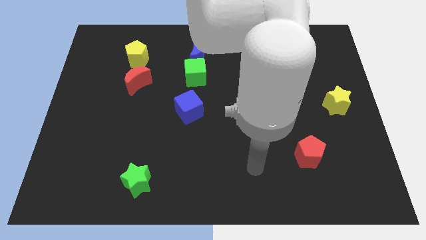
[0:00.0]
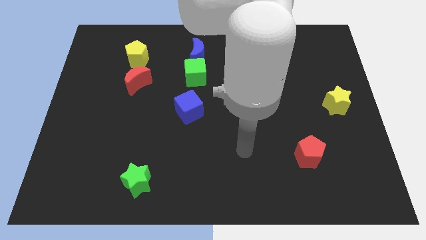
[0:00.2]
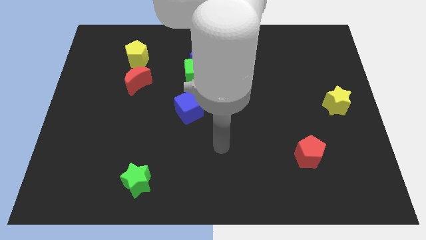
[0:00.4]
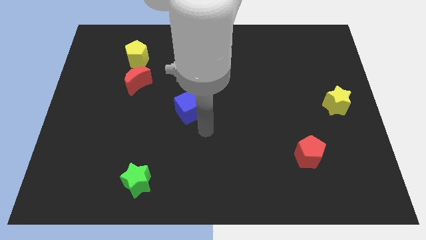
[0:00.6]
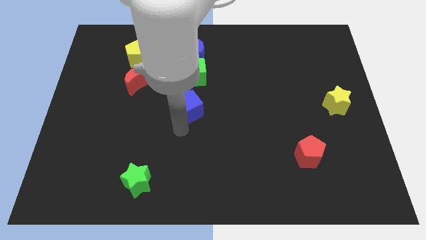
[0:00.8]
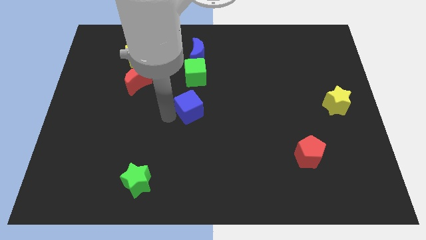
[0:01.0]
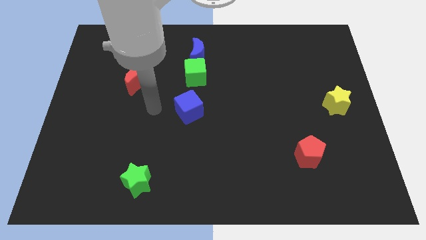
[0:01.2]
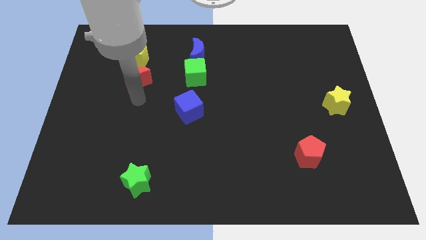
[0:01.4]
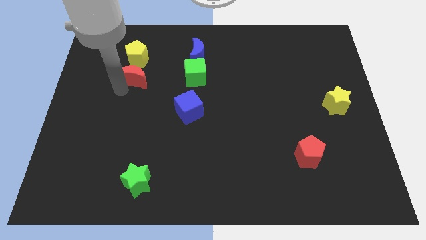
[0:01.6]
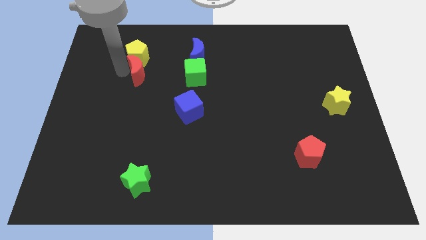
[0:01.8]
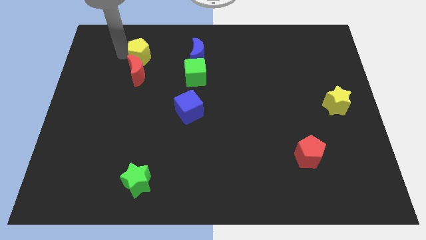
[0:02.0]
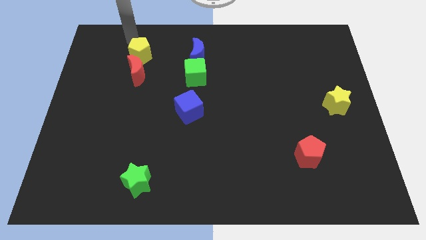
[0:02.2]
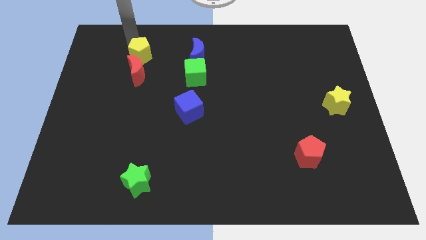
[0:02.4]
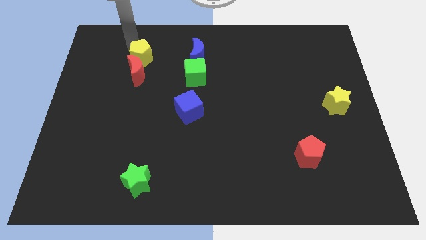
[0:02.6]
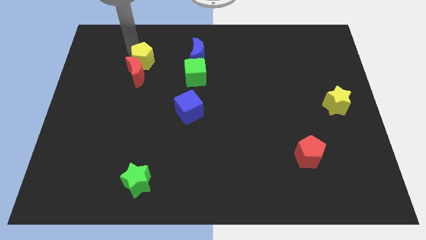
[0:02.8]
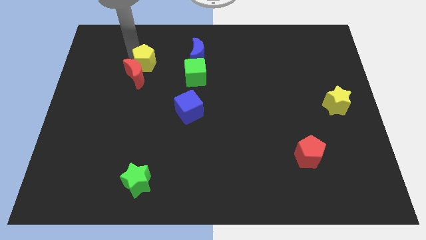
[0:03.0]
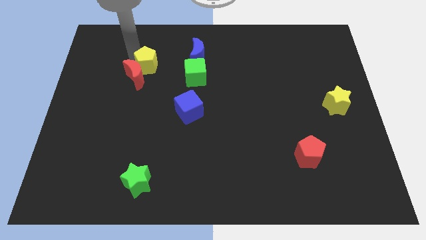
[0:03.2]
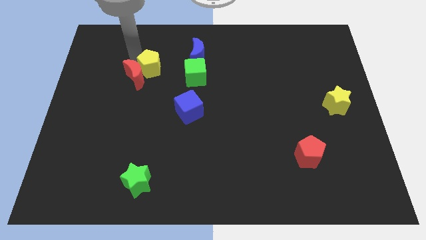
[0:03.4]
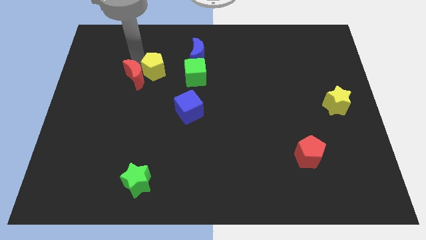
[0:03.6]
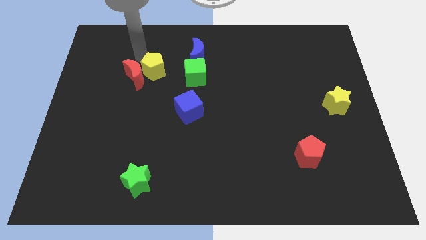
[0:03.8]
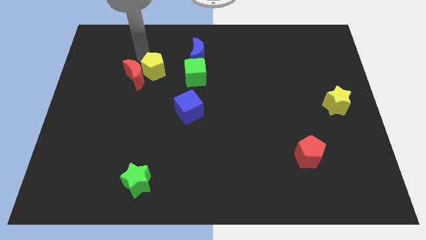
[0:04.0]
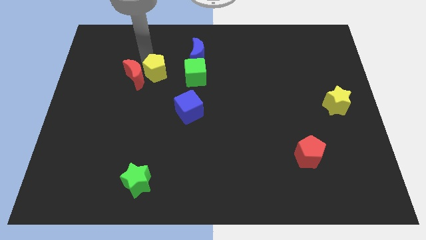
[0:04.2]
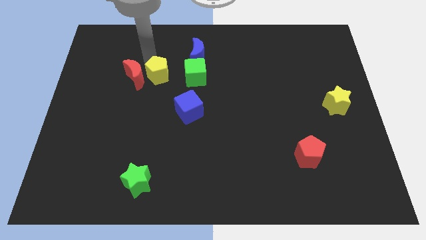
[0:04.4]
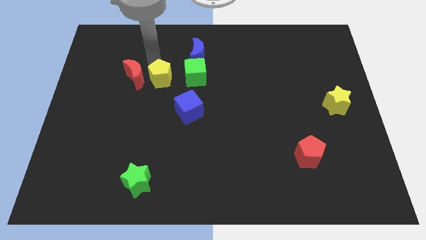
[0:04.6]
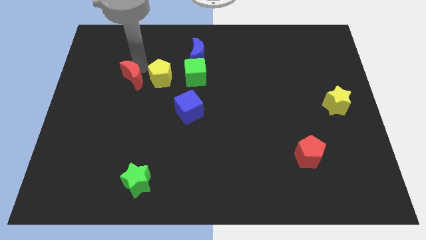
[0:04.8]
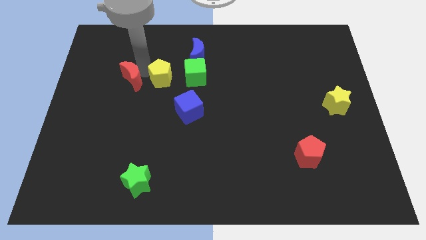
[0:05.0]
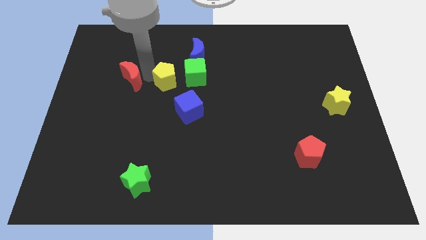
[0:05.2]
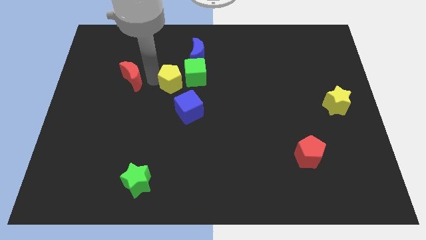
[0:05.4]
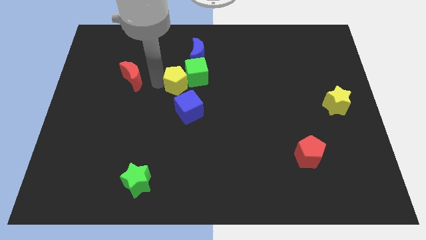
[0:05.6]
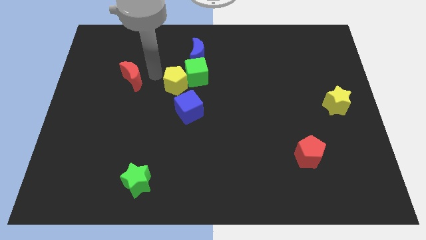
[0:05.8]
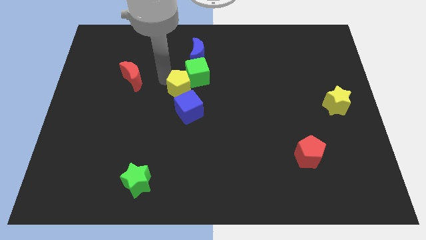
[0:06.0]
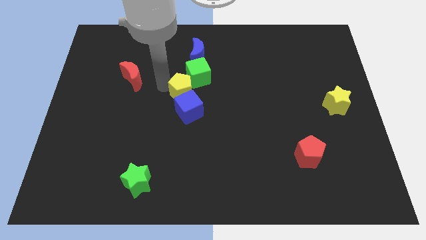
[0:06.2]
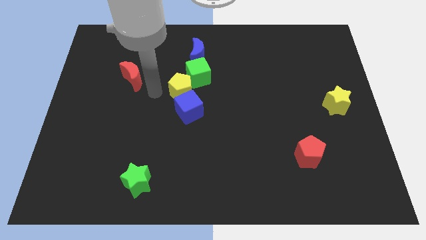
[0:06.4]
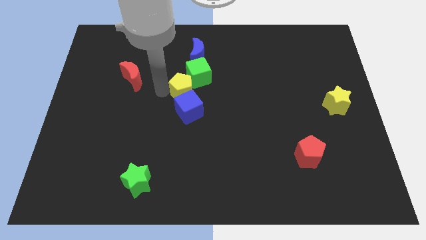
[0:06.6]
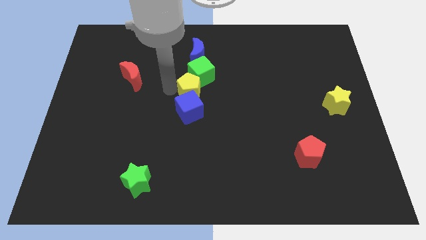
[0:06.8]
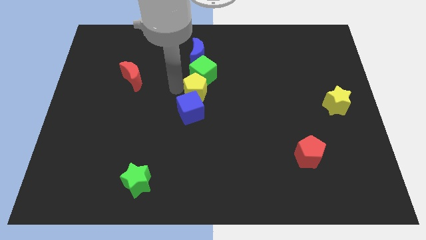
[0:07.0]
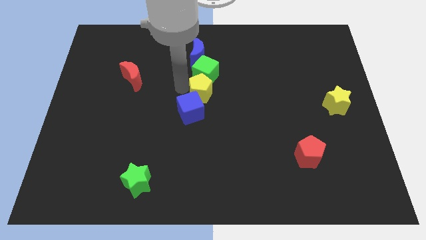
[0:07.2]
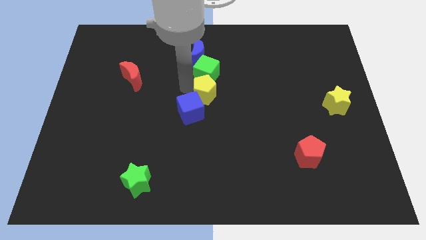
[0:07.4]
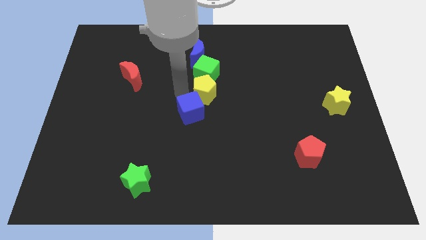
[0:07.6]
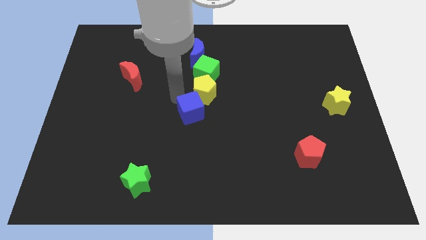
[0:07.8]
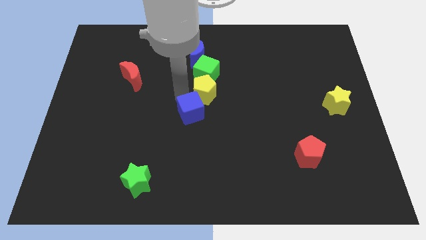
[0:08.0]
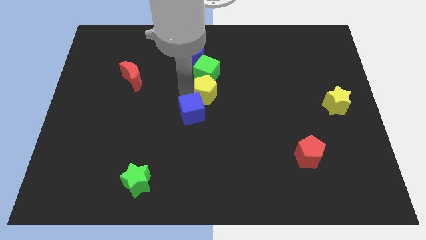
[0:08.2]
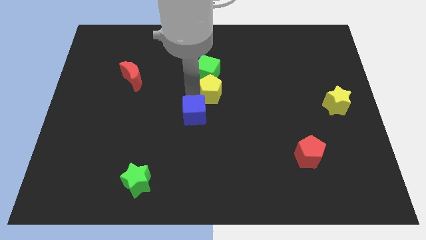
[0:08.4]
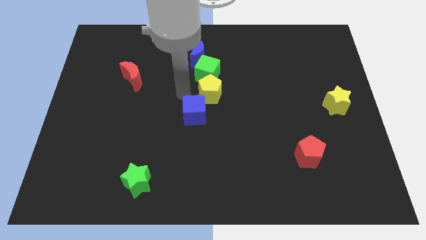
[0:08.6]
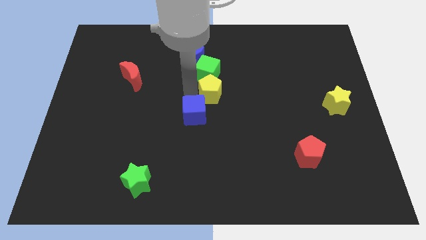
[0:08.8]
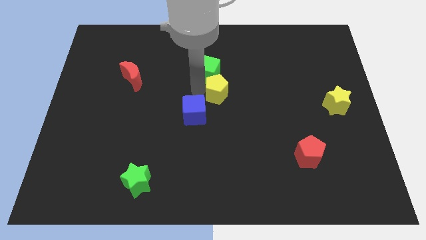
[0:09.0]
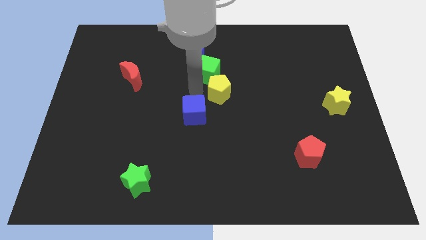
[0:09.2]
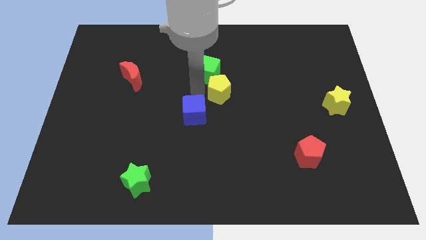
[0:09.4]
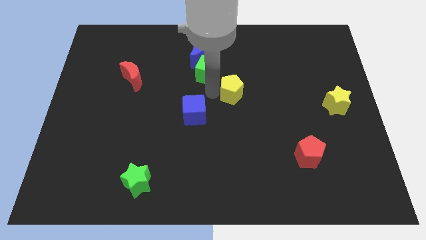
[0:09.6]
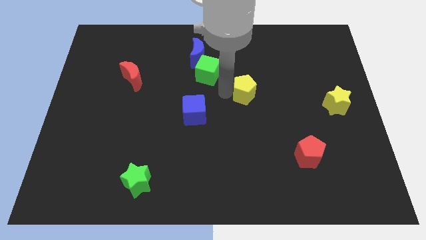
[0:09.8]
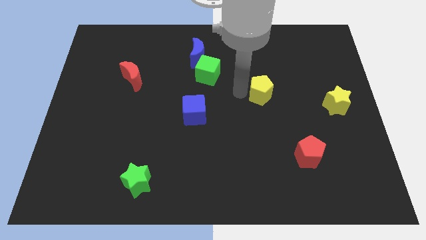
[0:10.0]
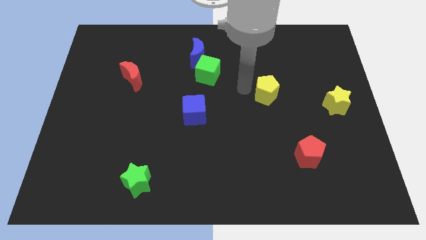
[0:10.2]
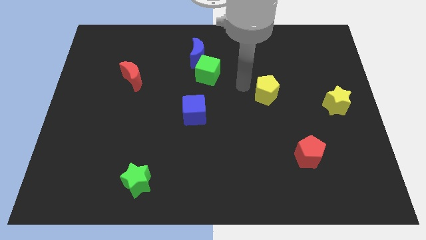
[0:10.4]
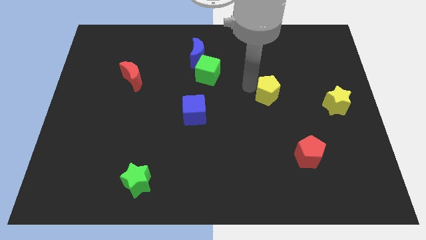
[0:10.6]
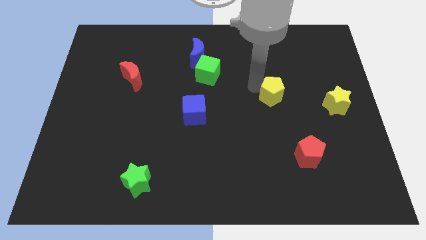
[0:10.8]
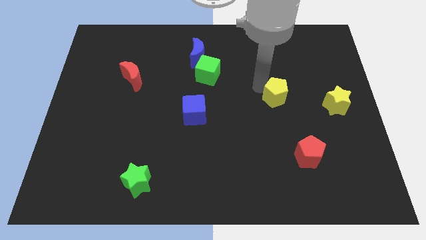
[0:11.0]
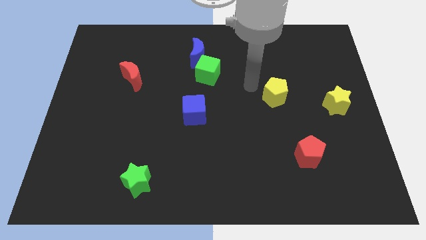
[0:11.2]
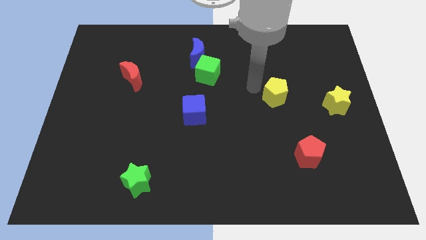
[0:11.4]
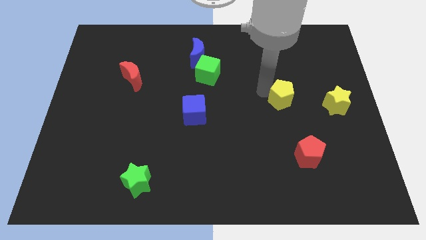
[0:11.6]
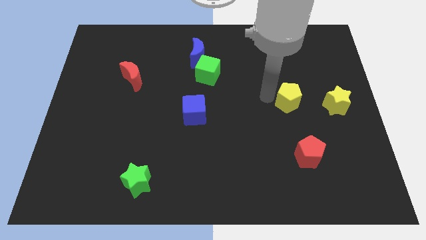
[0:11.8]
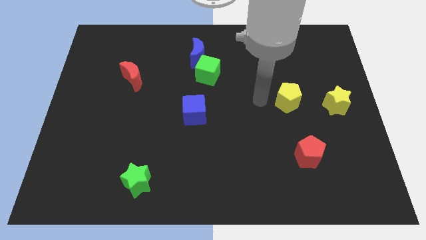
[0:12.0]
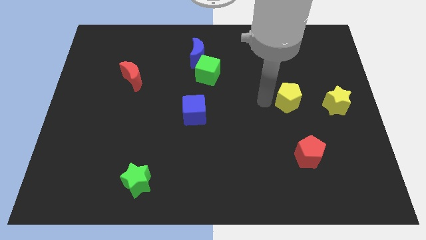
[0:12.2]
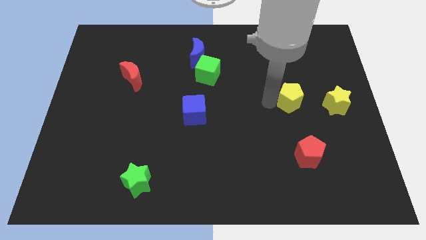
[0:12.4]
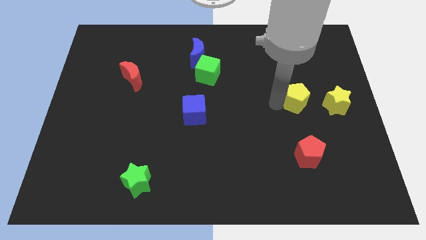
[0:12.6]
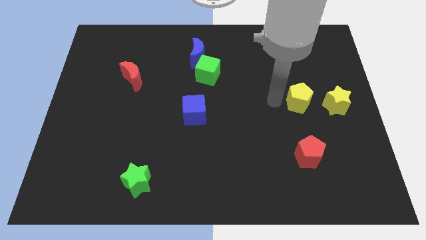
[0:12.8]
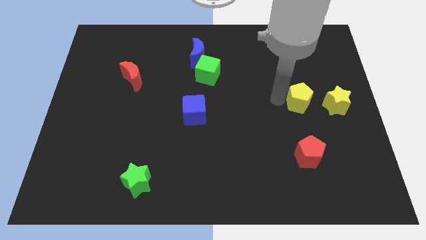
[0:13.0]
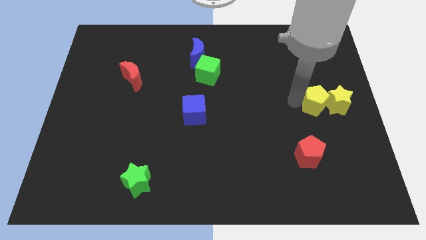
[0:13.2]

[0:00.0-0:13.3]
push the yellow pentagon close to the yellow star

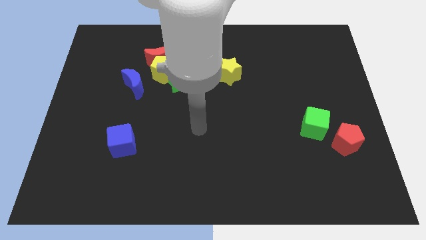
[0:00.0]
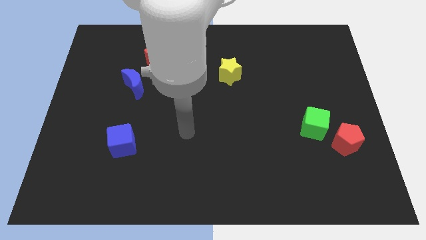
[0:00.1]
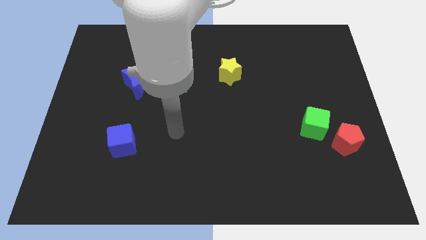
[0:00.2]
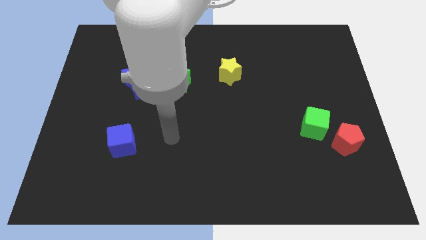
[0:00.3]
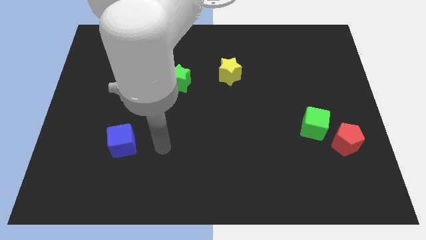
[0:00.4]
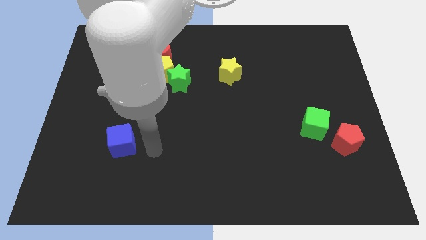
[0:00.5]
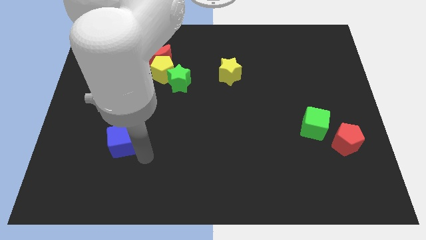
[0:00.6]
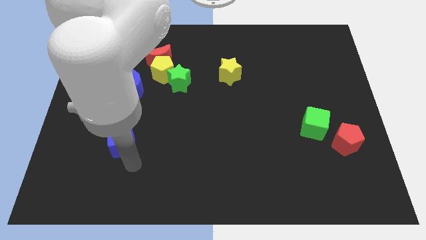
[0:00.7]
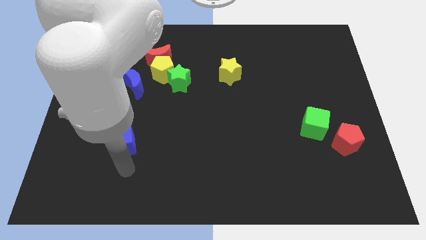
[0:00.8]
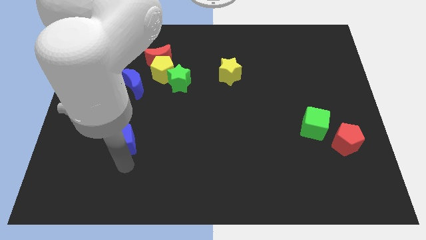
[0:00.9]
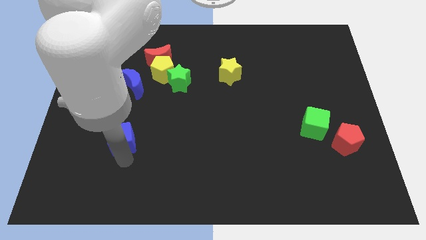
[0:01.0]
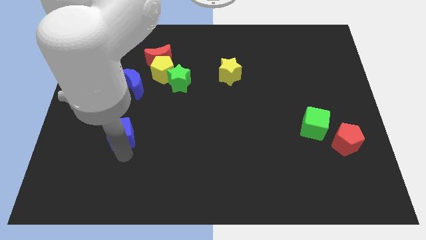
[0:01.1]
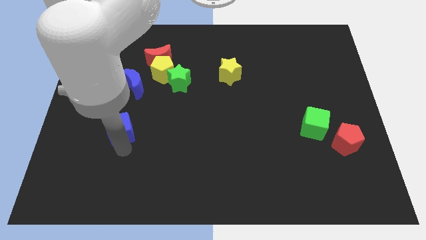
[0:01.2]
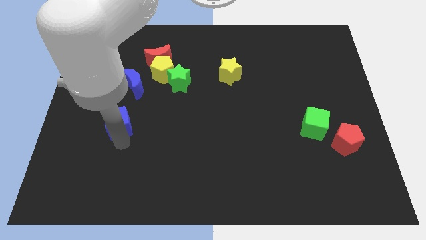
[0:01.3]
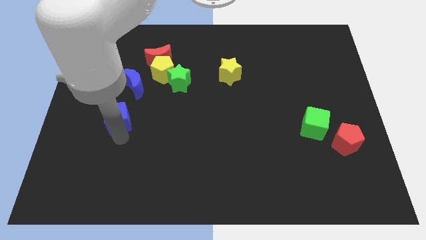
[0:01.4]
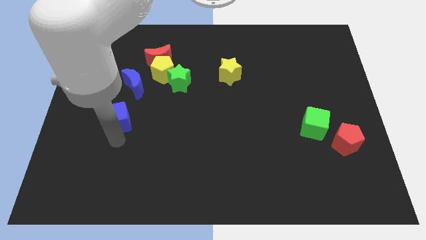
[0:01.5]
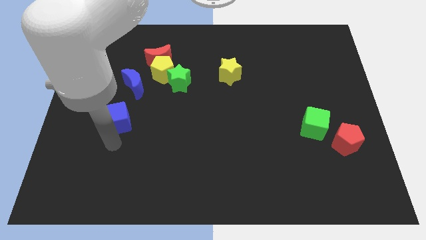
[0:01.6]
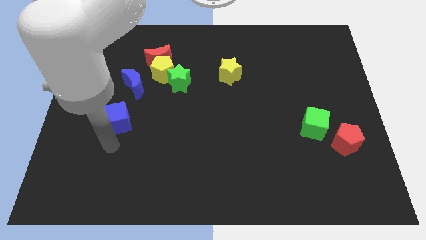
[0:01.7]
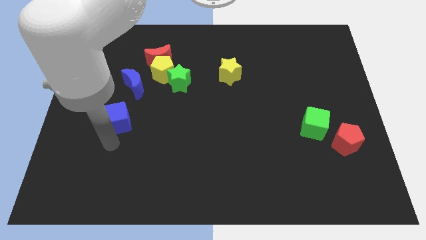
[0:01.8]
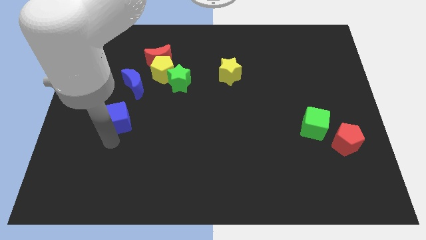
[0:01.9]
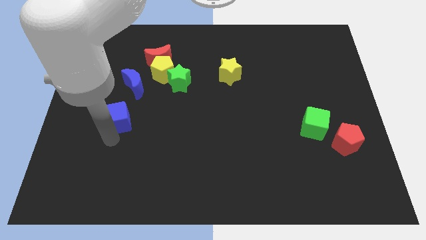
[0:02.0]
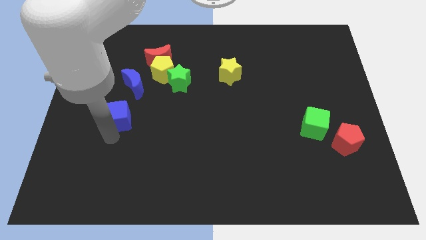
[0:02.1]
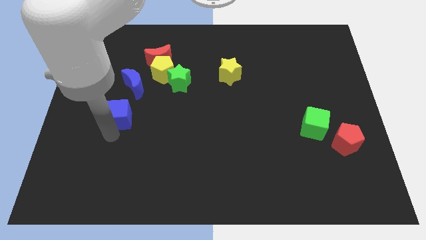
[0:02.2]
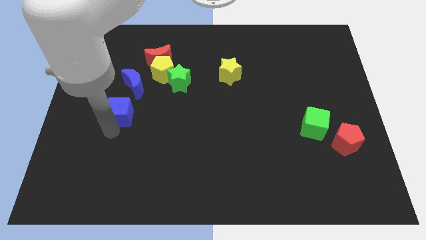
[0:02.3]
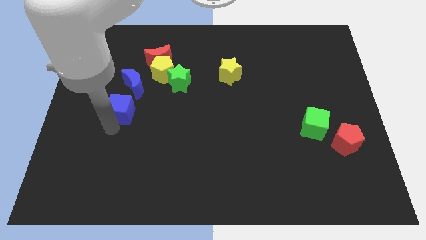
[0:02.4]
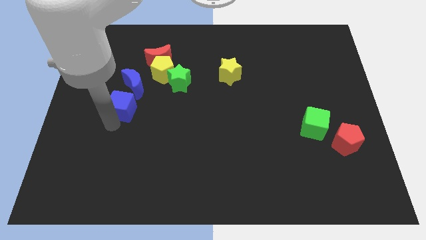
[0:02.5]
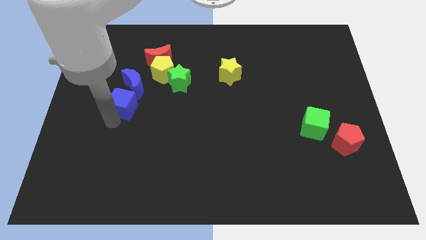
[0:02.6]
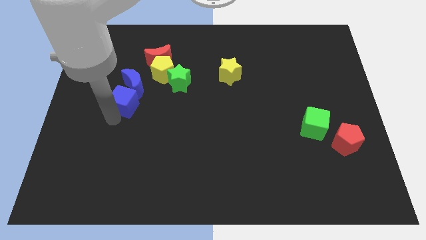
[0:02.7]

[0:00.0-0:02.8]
push the blue cube towards the blue moon
